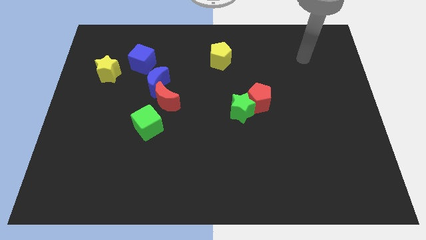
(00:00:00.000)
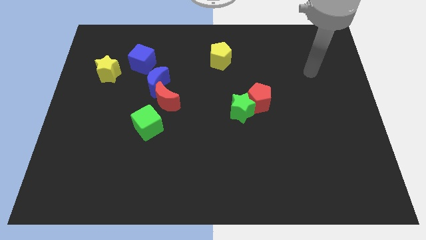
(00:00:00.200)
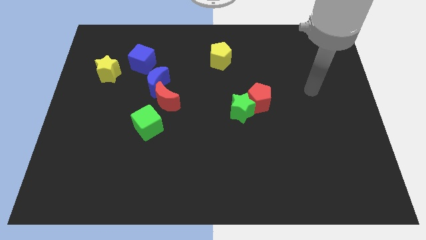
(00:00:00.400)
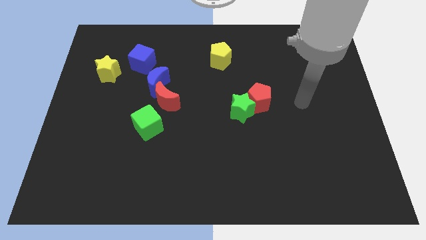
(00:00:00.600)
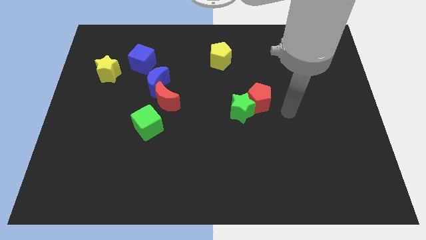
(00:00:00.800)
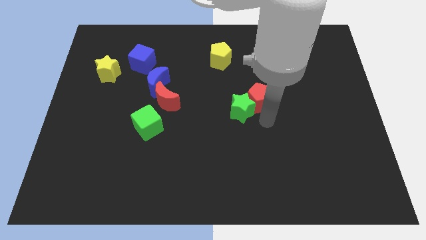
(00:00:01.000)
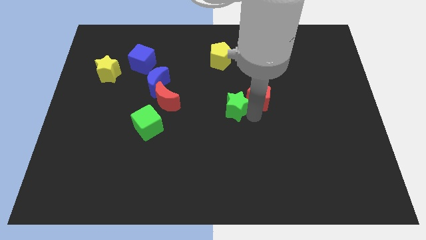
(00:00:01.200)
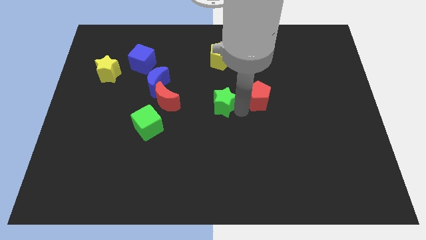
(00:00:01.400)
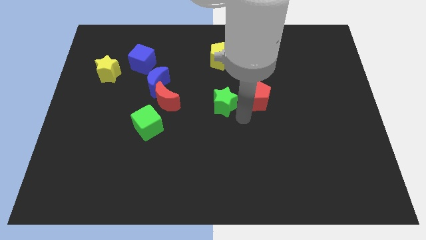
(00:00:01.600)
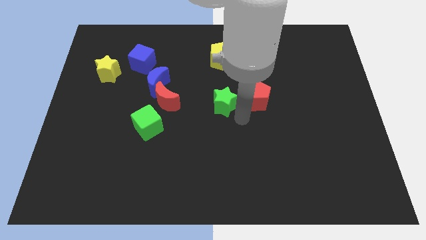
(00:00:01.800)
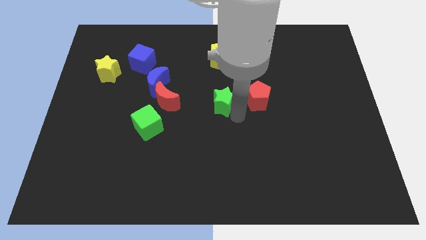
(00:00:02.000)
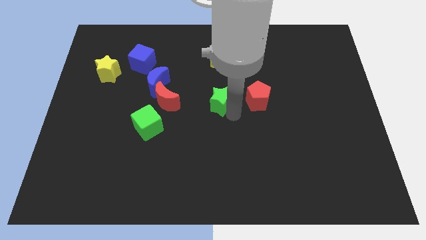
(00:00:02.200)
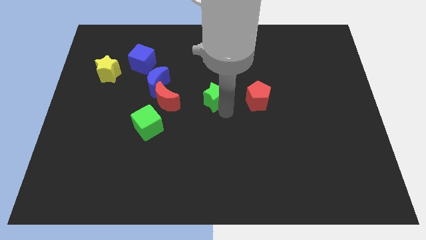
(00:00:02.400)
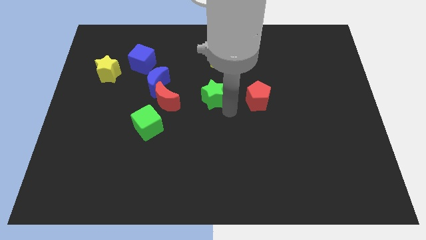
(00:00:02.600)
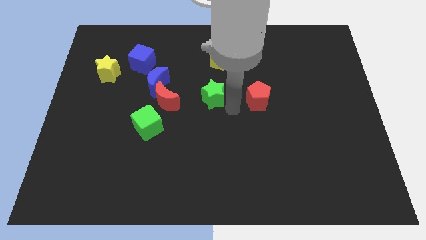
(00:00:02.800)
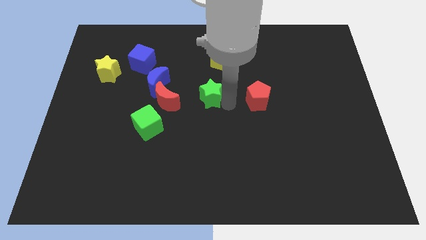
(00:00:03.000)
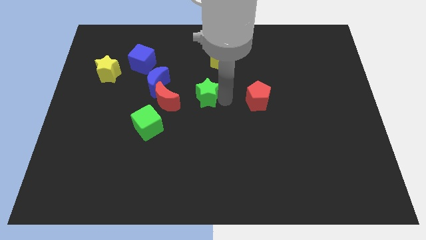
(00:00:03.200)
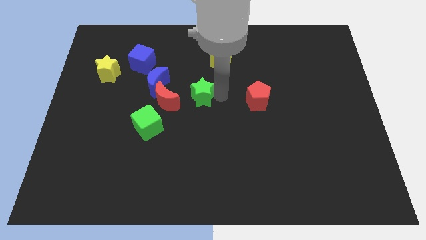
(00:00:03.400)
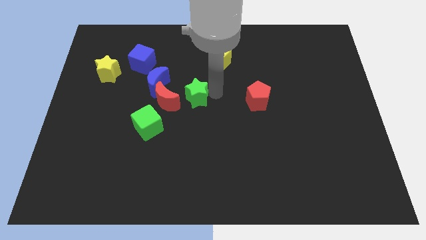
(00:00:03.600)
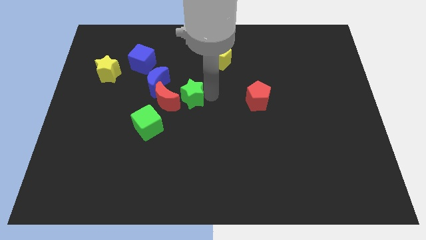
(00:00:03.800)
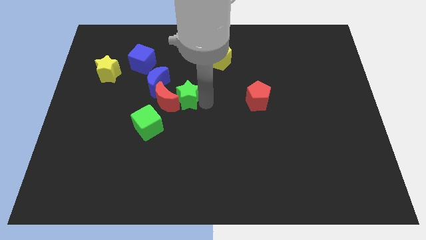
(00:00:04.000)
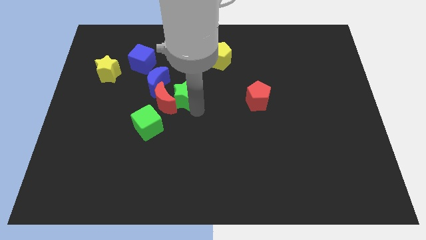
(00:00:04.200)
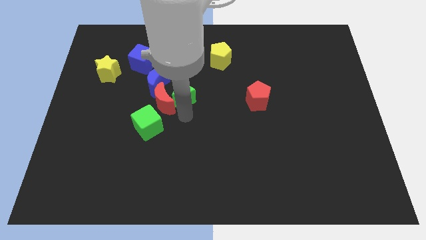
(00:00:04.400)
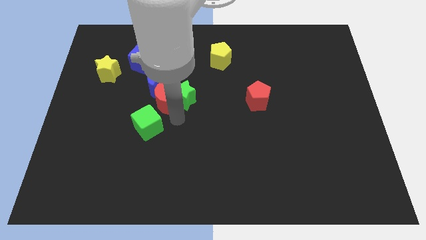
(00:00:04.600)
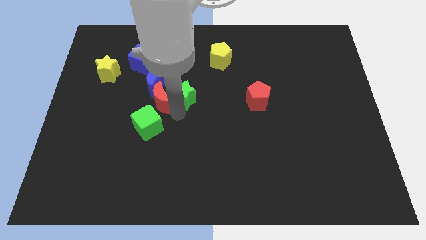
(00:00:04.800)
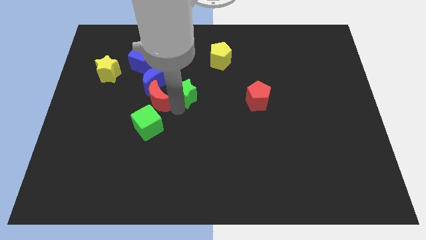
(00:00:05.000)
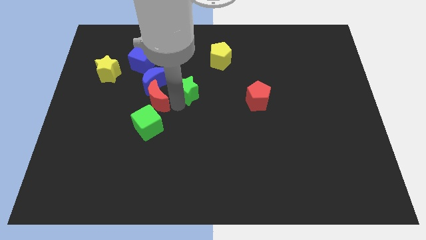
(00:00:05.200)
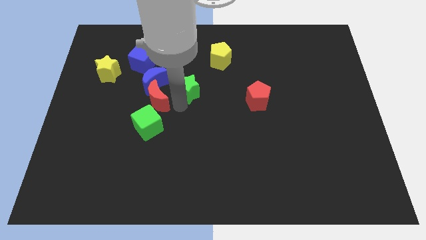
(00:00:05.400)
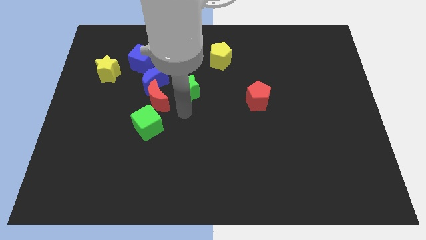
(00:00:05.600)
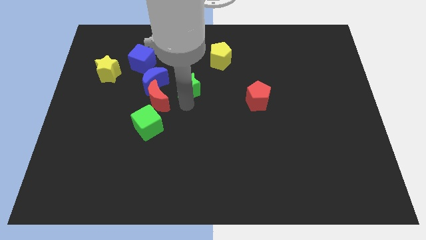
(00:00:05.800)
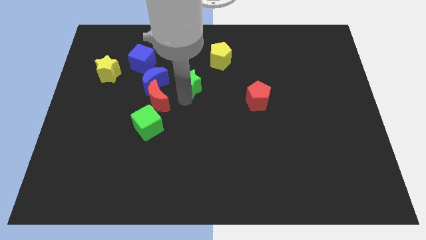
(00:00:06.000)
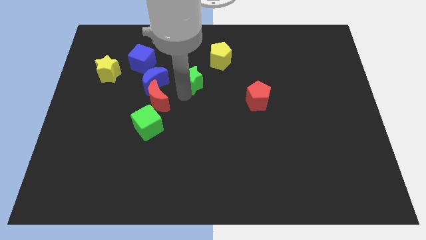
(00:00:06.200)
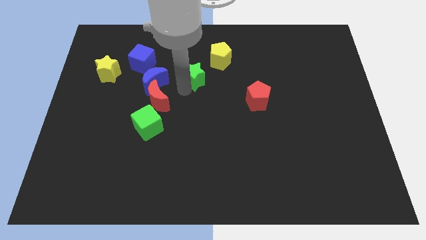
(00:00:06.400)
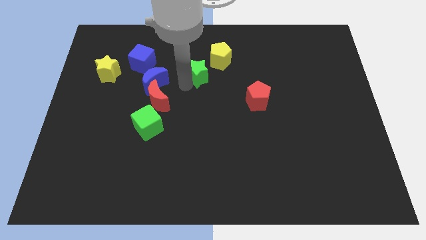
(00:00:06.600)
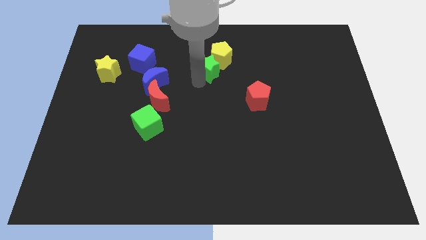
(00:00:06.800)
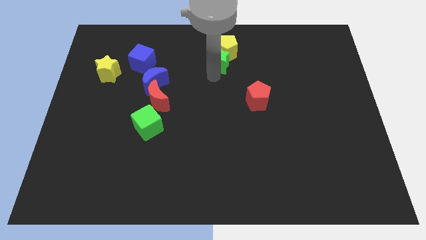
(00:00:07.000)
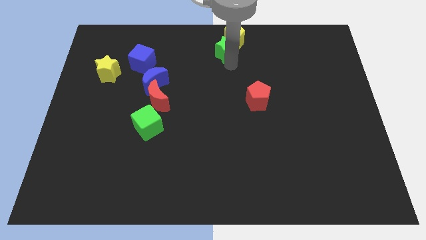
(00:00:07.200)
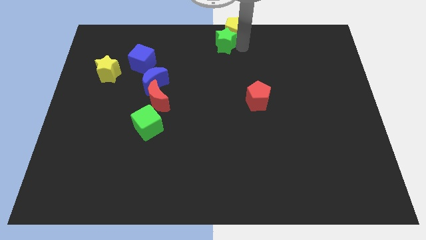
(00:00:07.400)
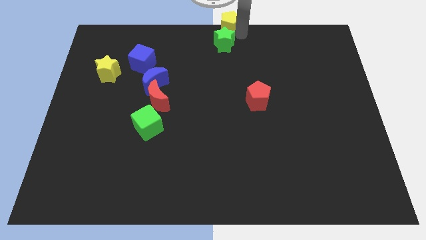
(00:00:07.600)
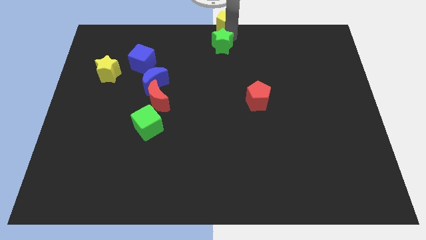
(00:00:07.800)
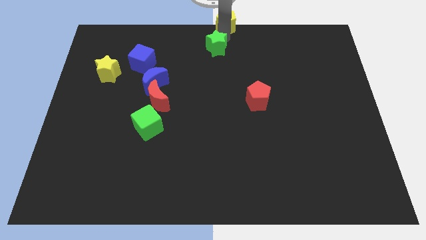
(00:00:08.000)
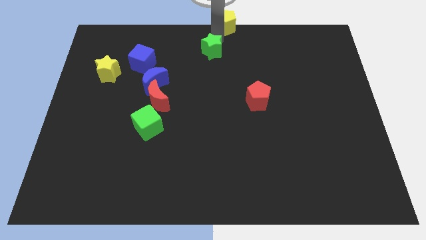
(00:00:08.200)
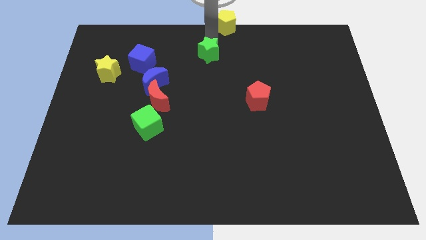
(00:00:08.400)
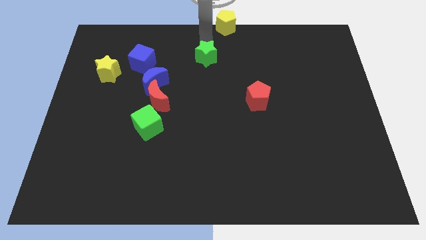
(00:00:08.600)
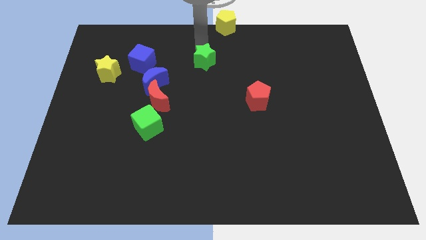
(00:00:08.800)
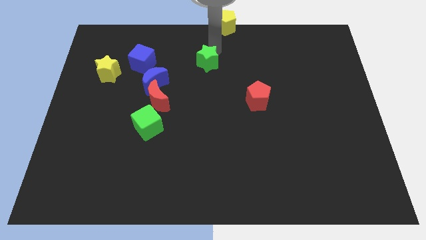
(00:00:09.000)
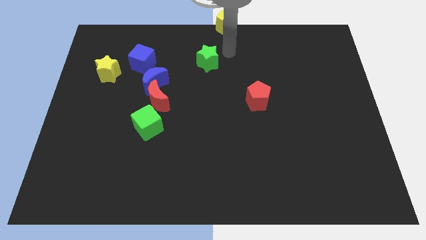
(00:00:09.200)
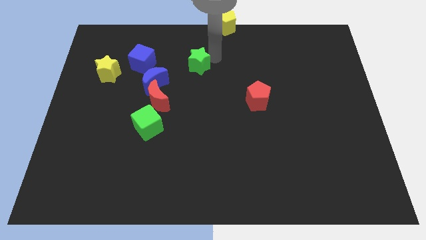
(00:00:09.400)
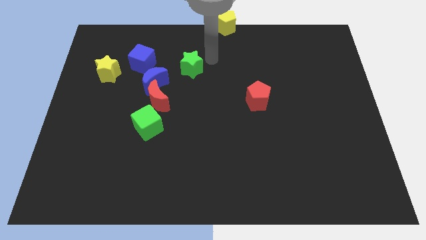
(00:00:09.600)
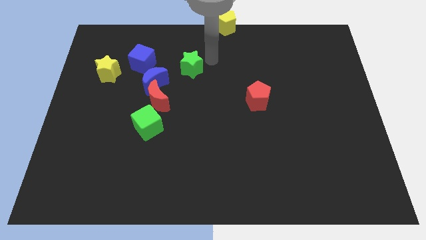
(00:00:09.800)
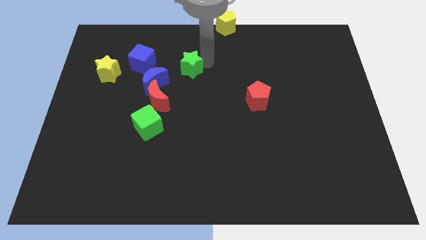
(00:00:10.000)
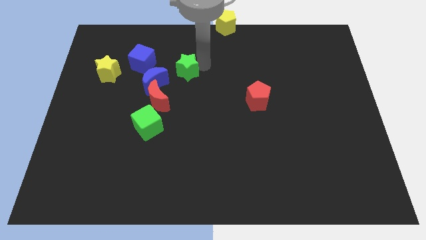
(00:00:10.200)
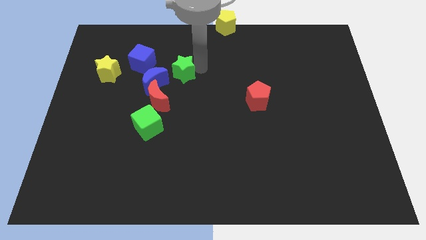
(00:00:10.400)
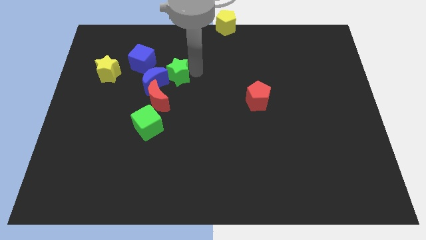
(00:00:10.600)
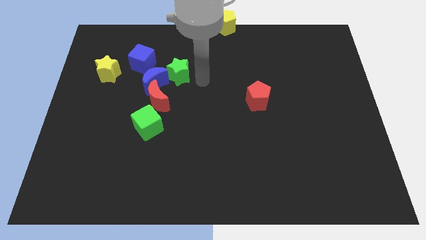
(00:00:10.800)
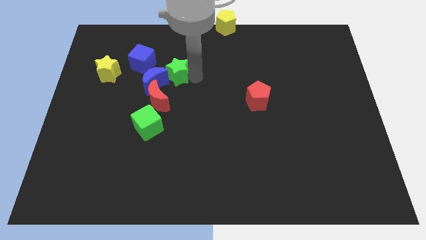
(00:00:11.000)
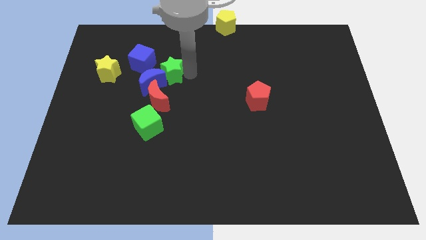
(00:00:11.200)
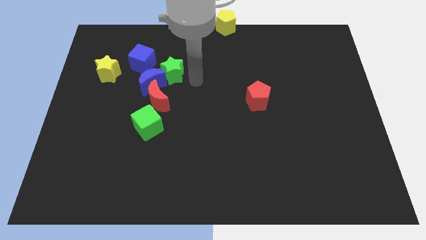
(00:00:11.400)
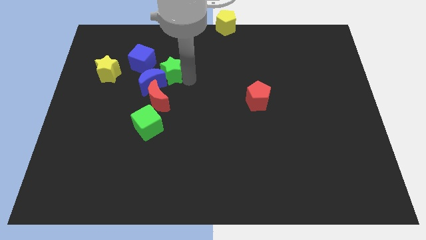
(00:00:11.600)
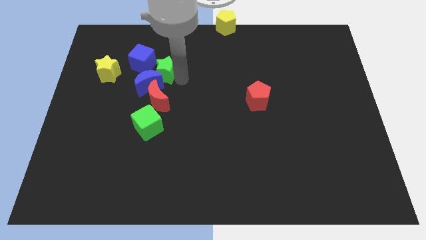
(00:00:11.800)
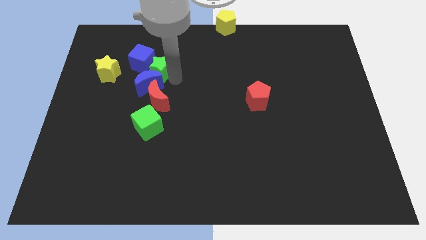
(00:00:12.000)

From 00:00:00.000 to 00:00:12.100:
put the green star close to the blue cube

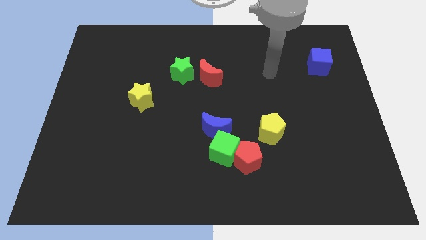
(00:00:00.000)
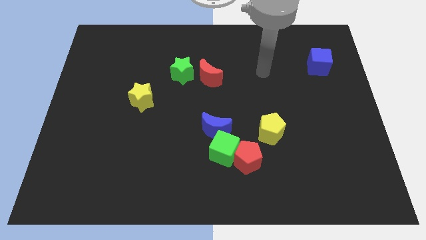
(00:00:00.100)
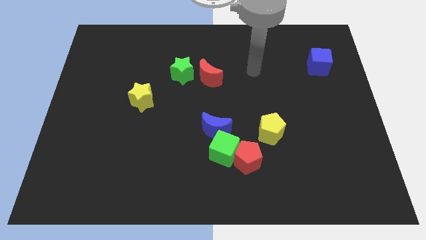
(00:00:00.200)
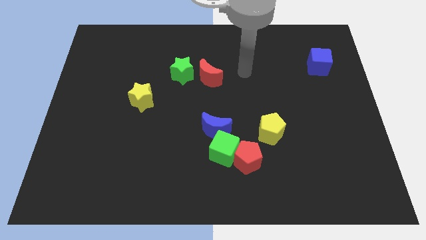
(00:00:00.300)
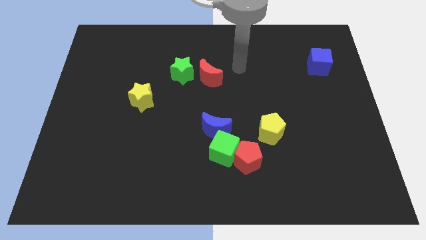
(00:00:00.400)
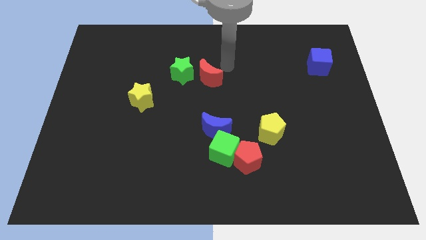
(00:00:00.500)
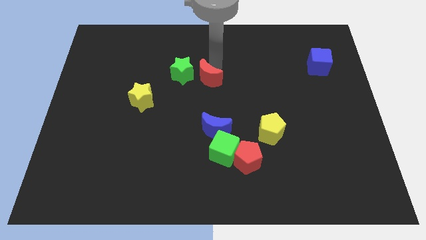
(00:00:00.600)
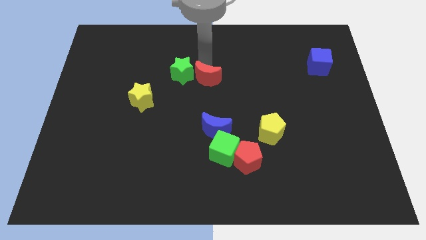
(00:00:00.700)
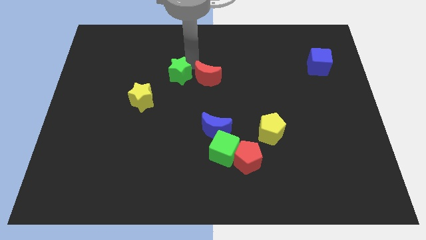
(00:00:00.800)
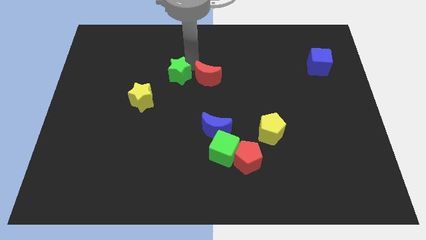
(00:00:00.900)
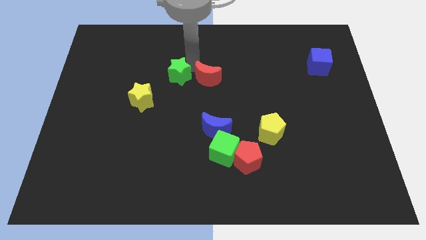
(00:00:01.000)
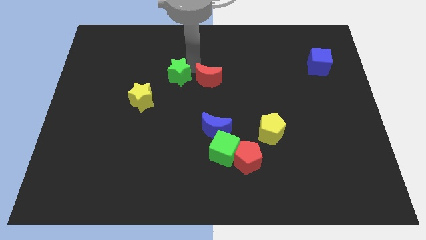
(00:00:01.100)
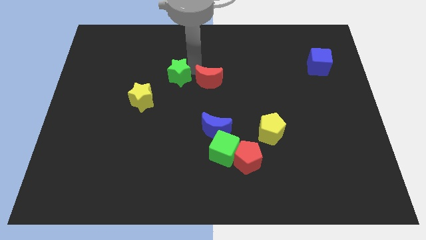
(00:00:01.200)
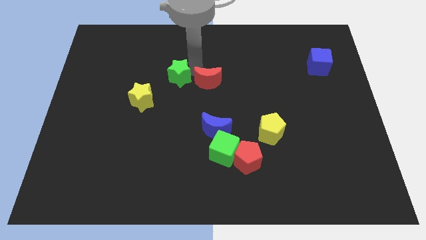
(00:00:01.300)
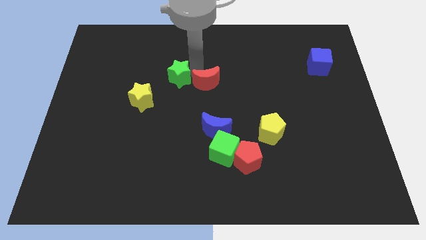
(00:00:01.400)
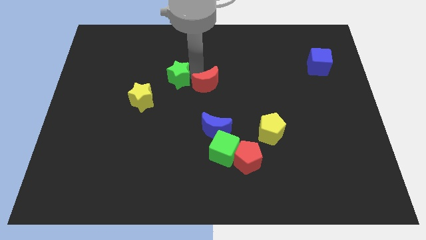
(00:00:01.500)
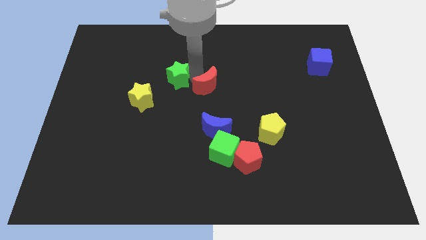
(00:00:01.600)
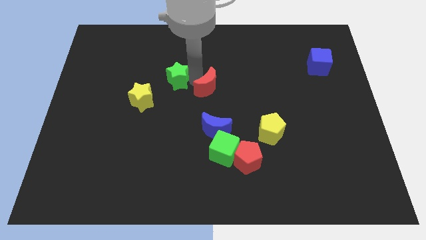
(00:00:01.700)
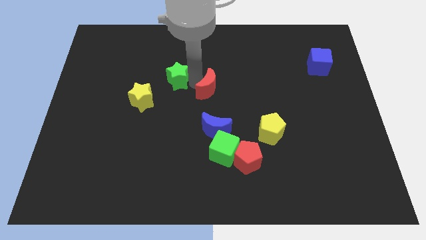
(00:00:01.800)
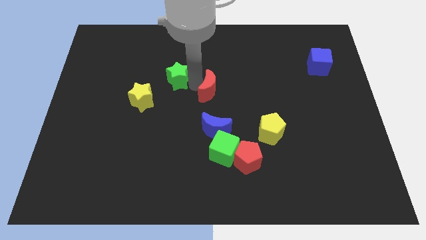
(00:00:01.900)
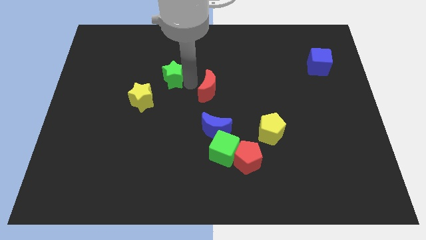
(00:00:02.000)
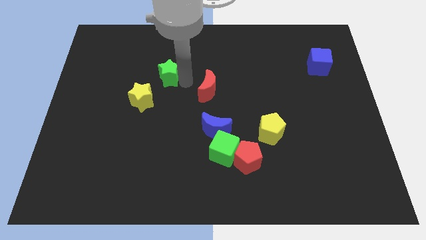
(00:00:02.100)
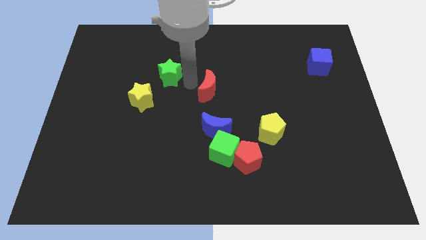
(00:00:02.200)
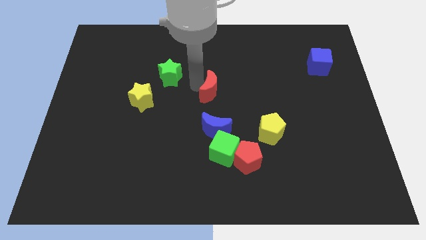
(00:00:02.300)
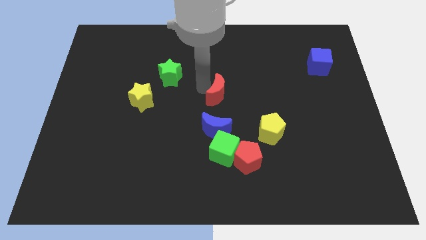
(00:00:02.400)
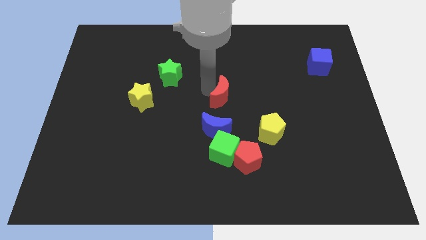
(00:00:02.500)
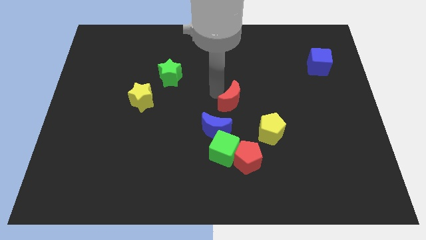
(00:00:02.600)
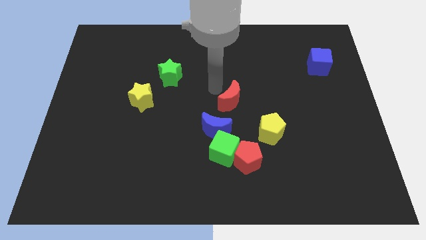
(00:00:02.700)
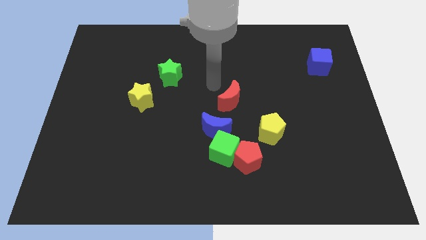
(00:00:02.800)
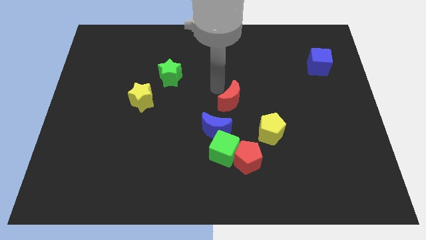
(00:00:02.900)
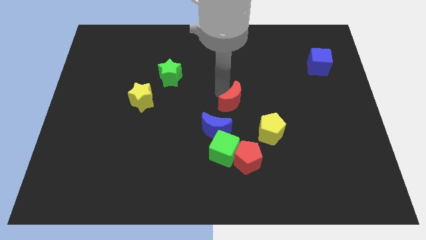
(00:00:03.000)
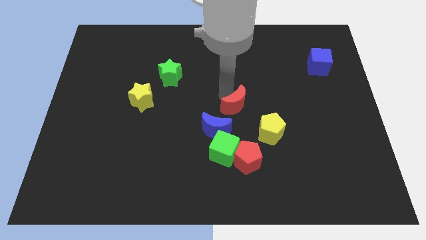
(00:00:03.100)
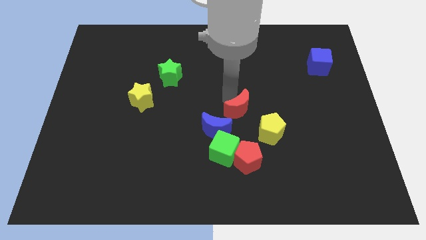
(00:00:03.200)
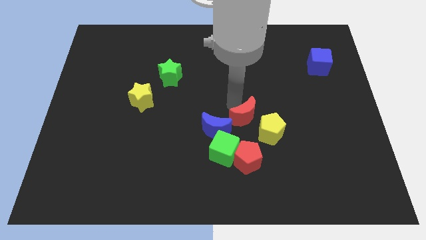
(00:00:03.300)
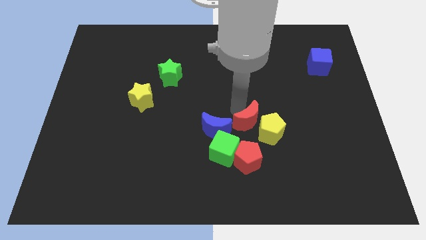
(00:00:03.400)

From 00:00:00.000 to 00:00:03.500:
push the red moon towards the yellow pentagon
